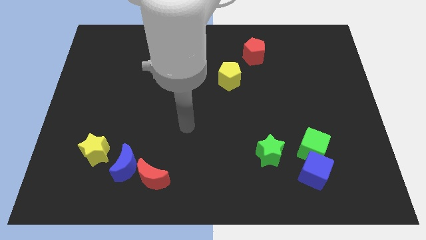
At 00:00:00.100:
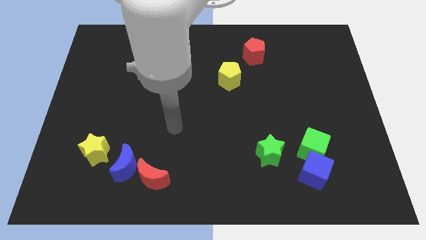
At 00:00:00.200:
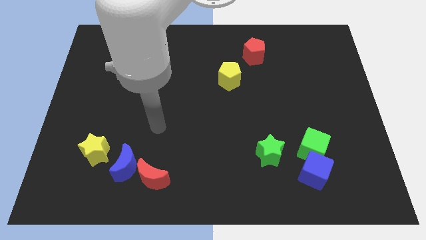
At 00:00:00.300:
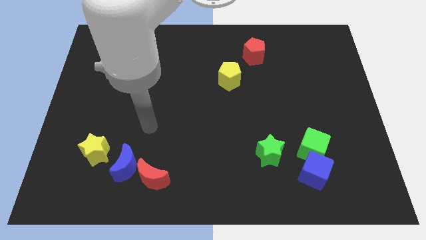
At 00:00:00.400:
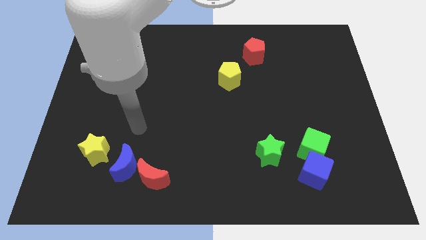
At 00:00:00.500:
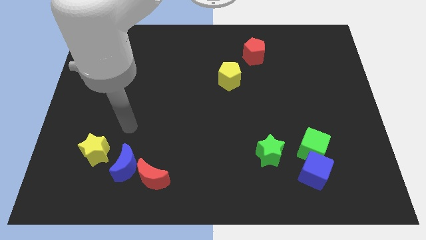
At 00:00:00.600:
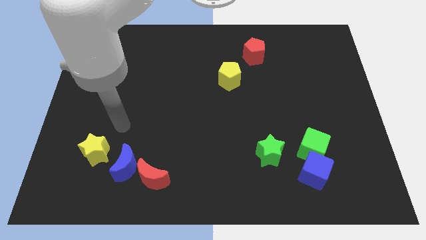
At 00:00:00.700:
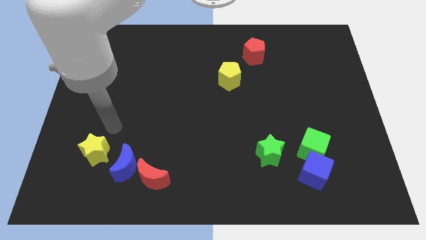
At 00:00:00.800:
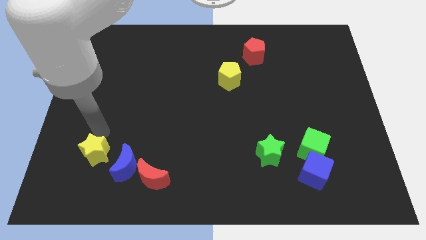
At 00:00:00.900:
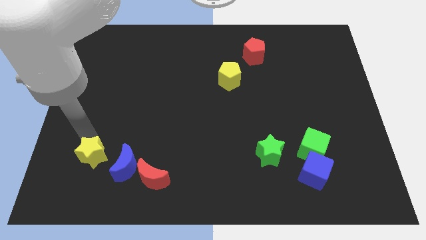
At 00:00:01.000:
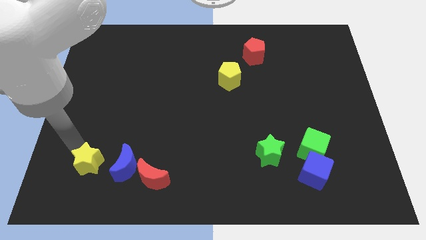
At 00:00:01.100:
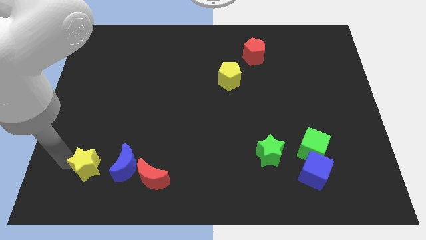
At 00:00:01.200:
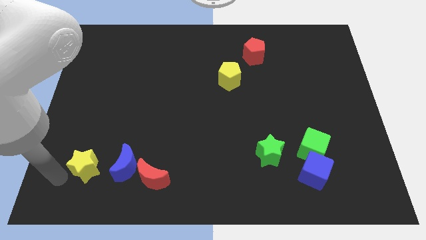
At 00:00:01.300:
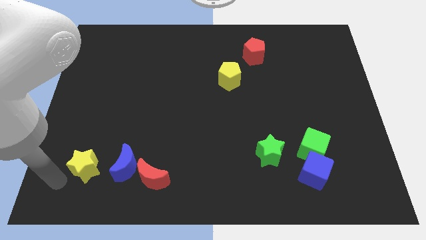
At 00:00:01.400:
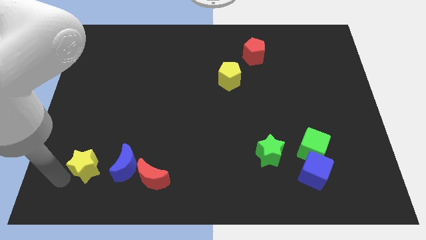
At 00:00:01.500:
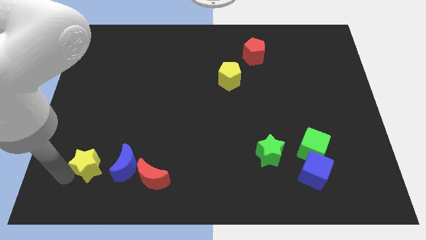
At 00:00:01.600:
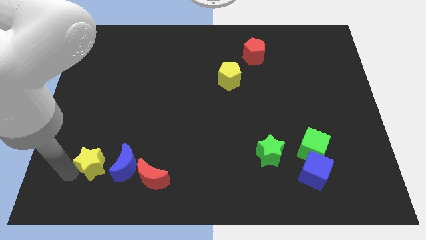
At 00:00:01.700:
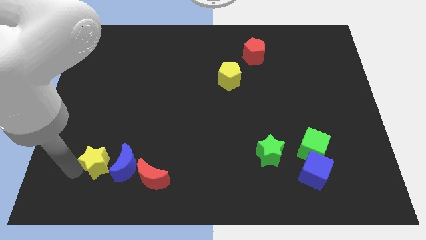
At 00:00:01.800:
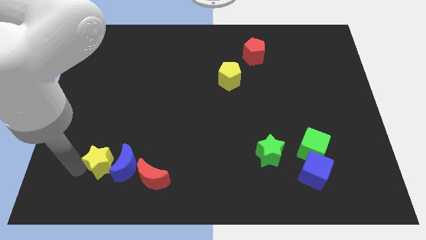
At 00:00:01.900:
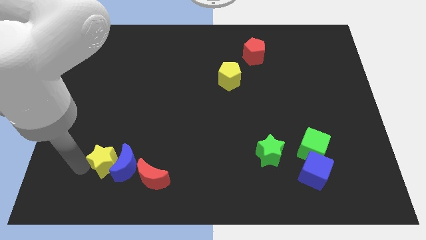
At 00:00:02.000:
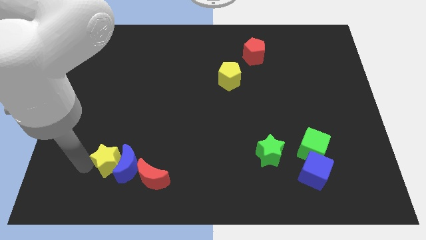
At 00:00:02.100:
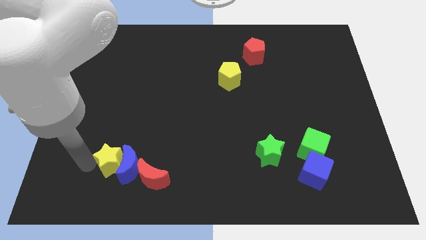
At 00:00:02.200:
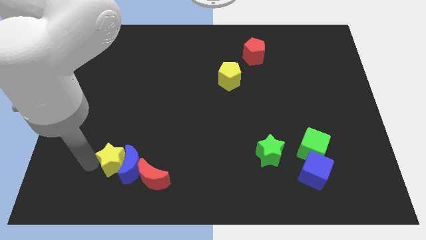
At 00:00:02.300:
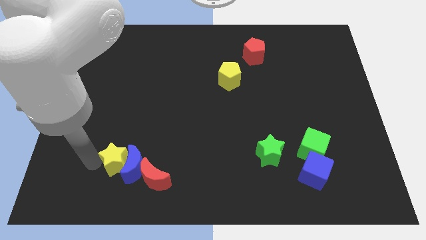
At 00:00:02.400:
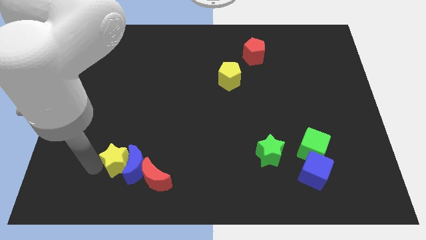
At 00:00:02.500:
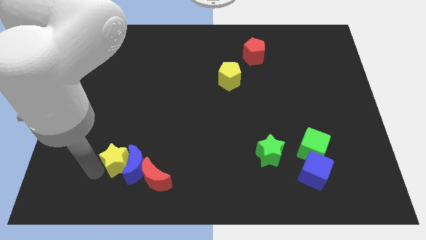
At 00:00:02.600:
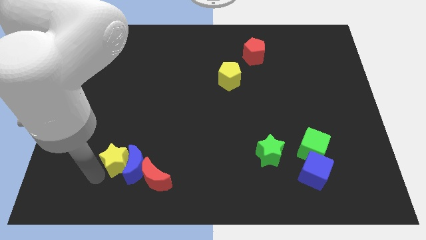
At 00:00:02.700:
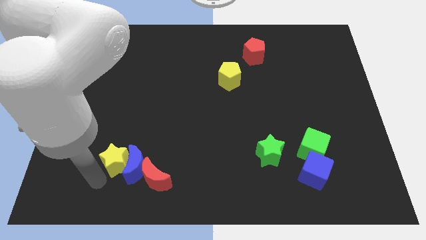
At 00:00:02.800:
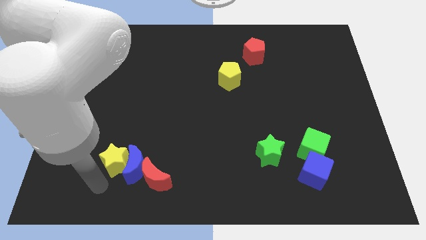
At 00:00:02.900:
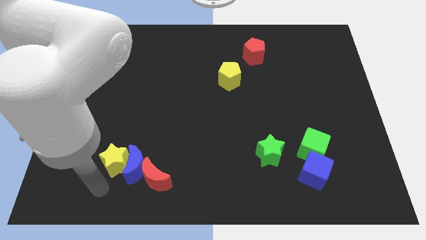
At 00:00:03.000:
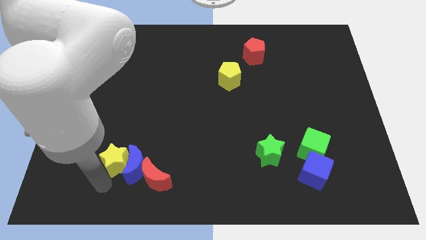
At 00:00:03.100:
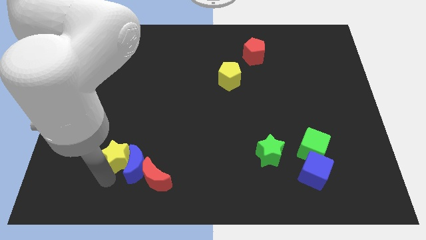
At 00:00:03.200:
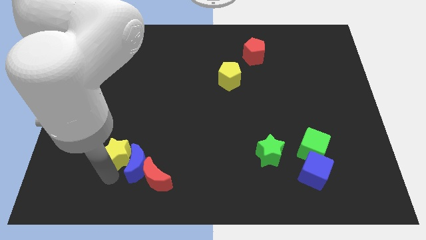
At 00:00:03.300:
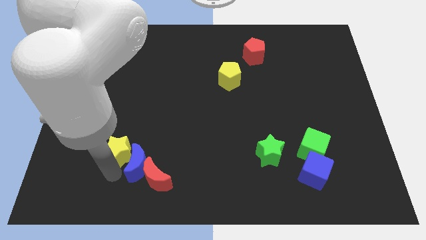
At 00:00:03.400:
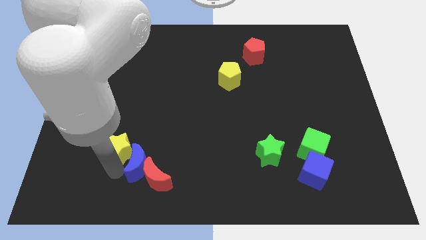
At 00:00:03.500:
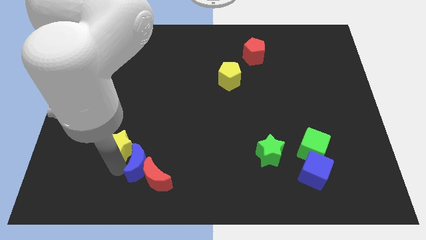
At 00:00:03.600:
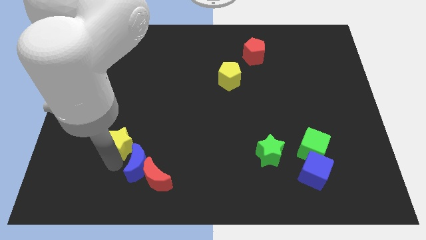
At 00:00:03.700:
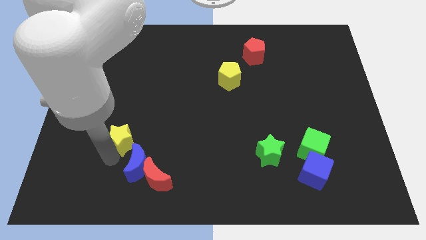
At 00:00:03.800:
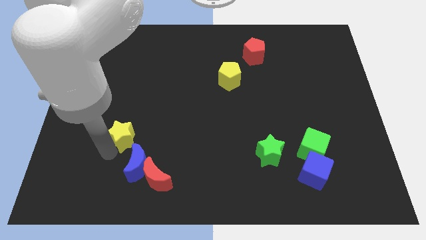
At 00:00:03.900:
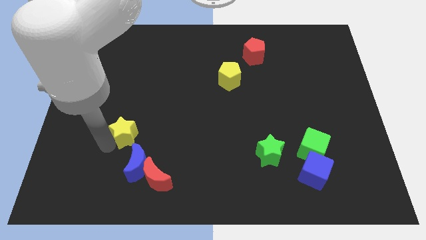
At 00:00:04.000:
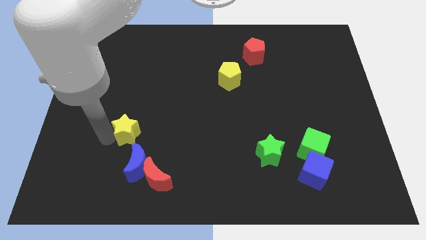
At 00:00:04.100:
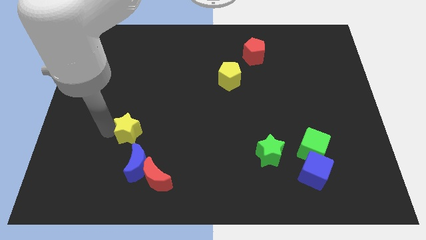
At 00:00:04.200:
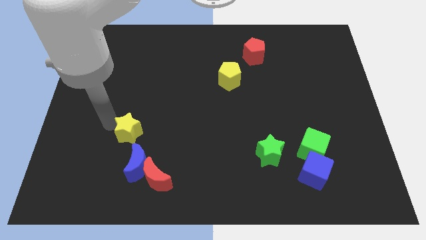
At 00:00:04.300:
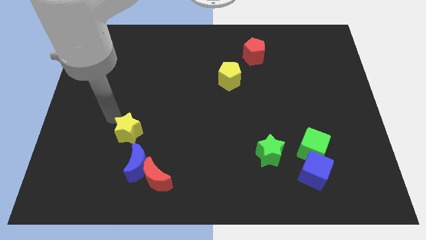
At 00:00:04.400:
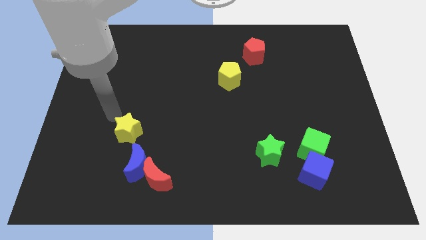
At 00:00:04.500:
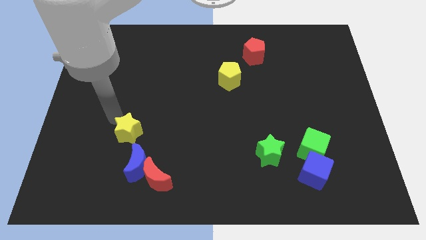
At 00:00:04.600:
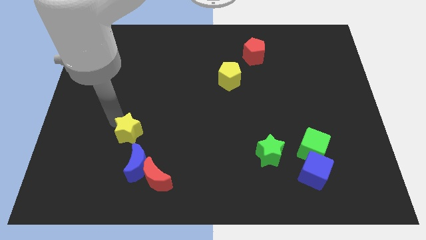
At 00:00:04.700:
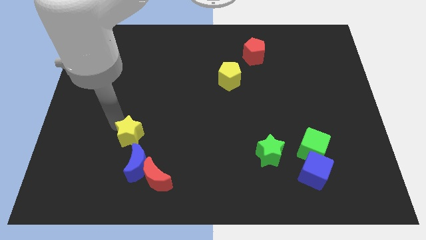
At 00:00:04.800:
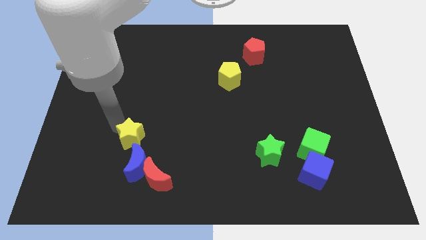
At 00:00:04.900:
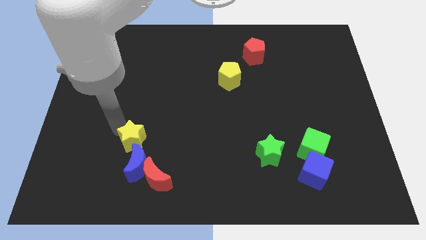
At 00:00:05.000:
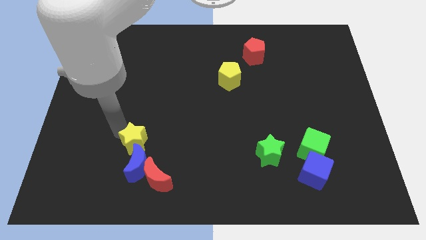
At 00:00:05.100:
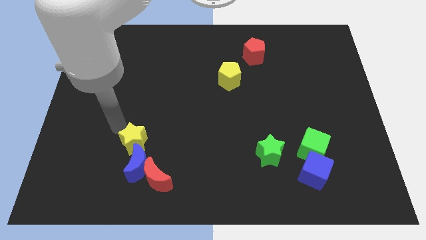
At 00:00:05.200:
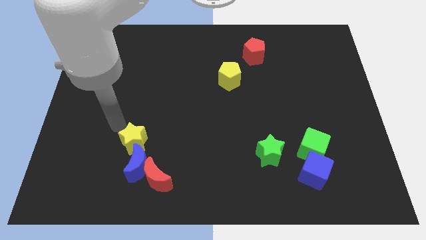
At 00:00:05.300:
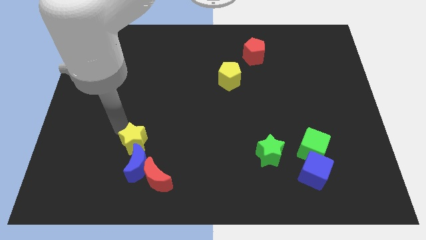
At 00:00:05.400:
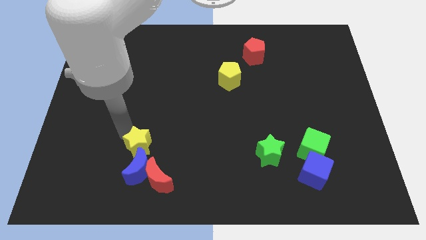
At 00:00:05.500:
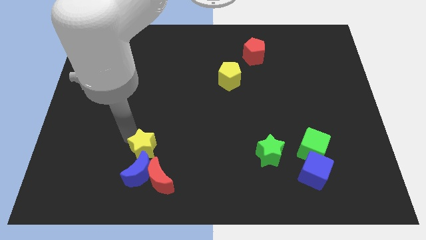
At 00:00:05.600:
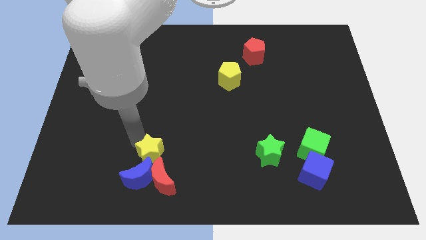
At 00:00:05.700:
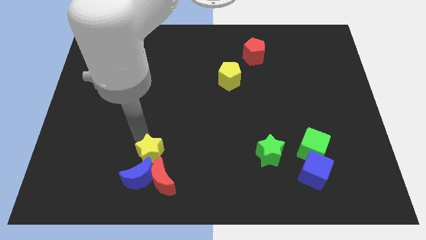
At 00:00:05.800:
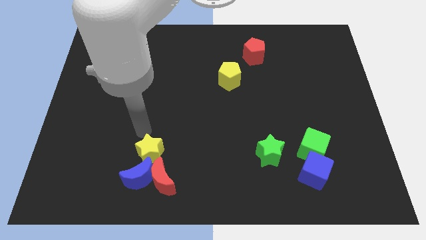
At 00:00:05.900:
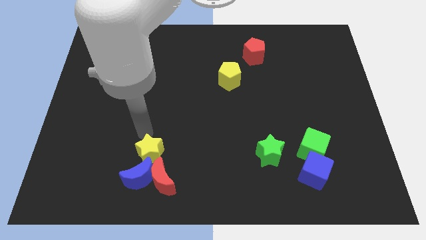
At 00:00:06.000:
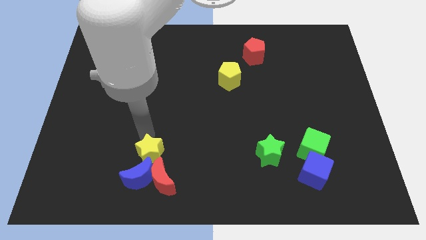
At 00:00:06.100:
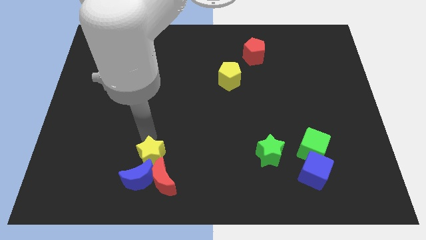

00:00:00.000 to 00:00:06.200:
move the yellow star close to the red moon

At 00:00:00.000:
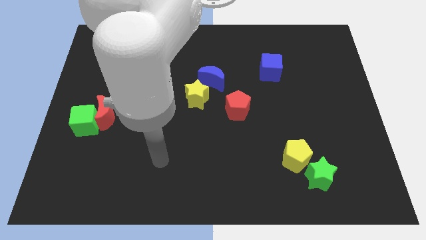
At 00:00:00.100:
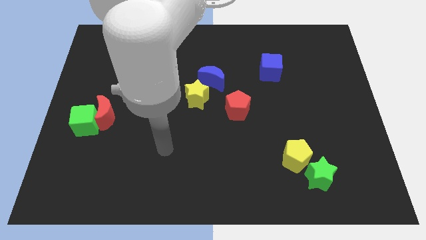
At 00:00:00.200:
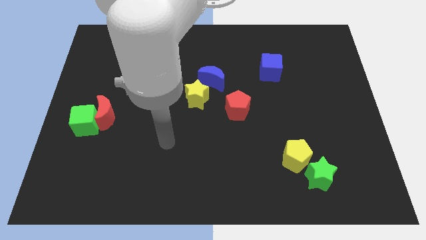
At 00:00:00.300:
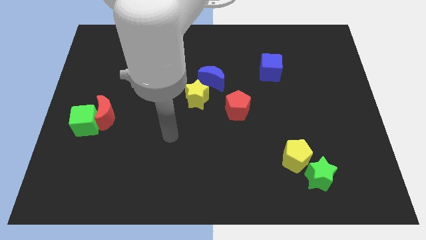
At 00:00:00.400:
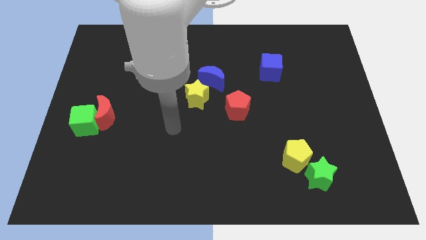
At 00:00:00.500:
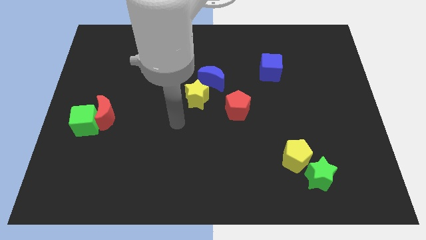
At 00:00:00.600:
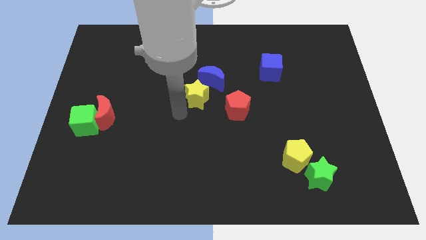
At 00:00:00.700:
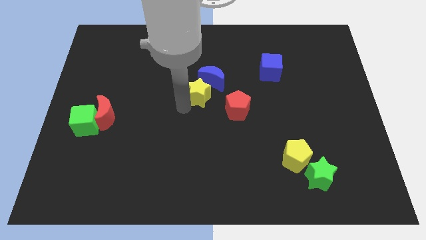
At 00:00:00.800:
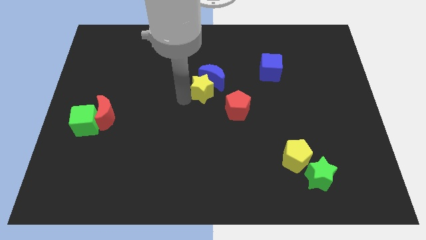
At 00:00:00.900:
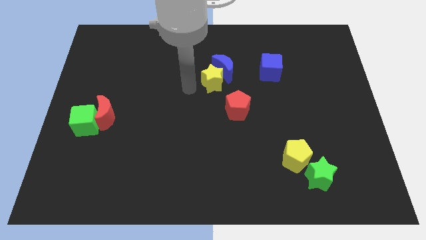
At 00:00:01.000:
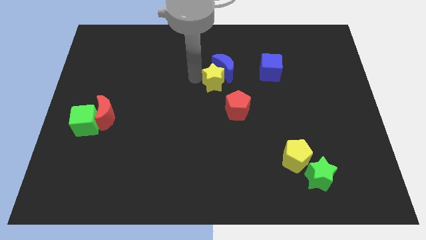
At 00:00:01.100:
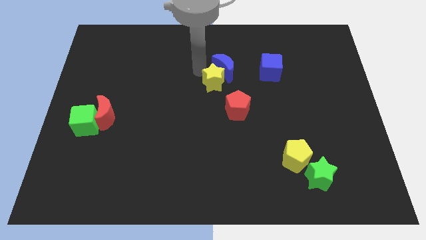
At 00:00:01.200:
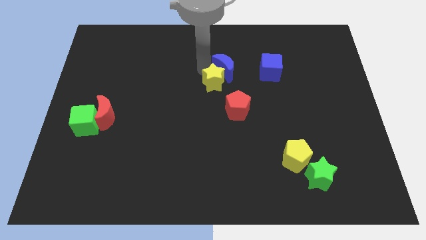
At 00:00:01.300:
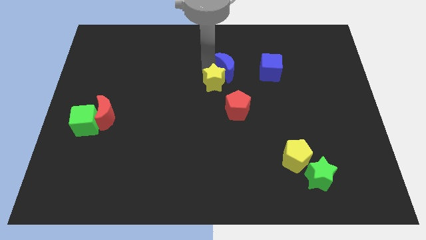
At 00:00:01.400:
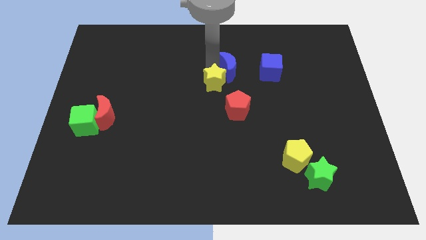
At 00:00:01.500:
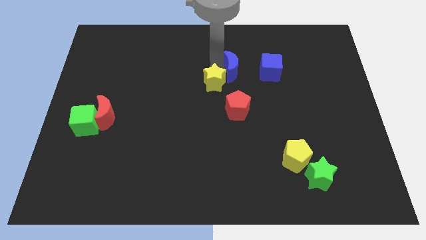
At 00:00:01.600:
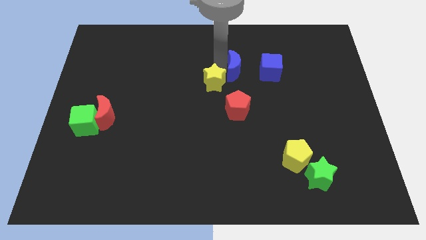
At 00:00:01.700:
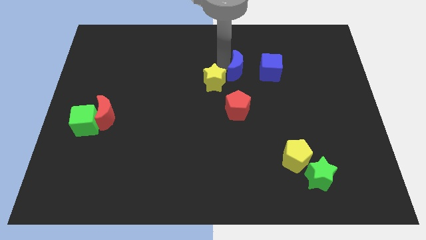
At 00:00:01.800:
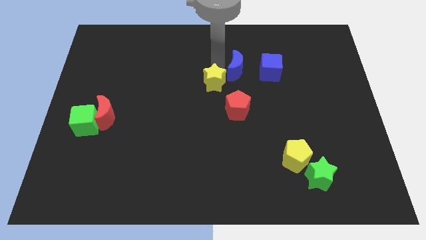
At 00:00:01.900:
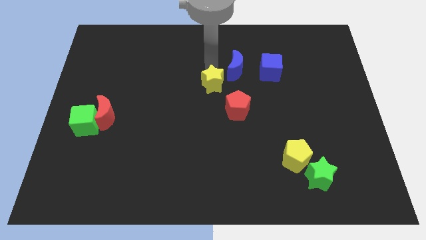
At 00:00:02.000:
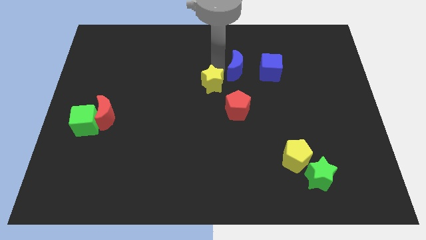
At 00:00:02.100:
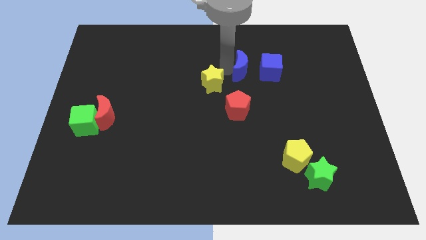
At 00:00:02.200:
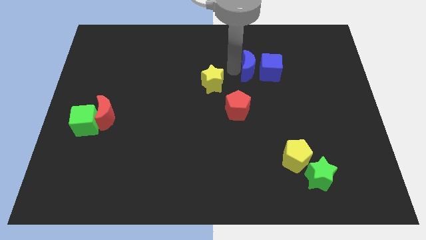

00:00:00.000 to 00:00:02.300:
put the blue moon close to the blue cube
